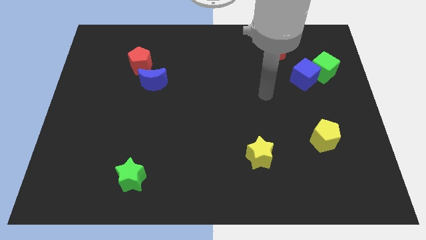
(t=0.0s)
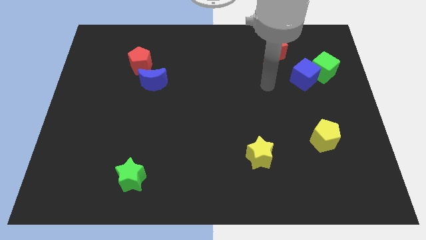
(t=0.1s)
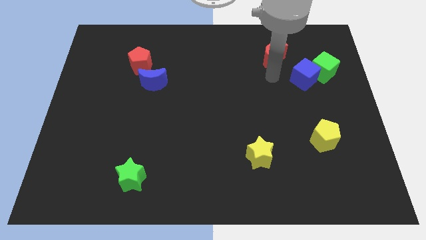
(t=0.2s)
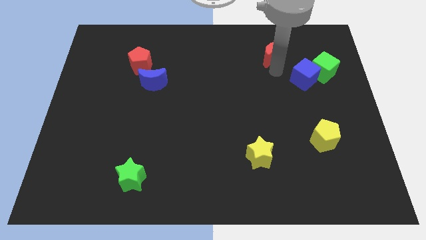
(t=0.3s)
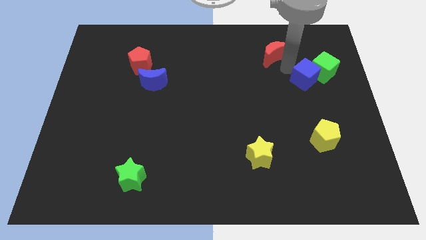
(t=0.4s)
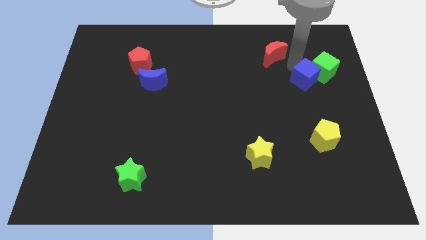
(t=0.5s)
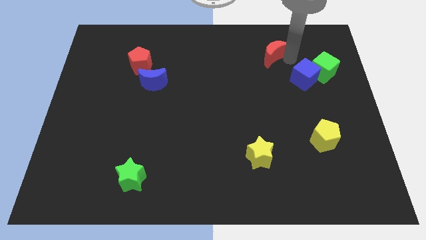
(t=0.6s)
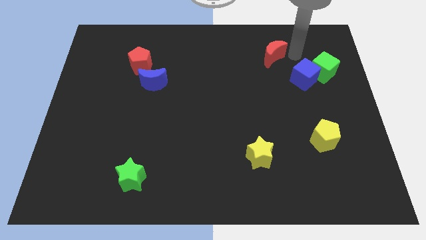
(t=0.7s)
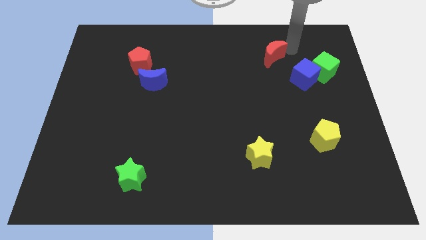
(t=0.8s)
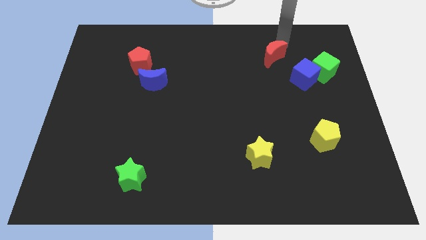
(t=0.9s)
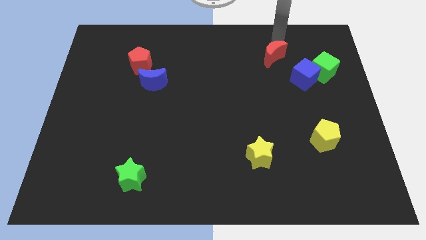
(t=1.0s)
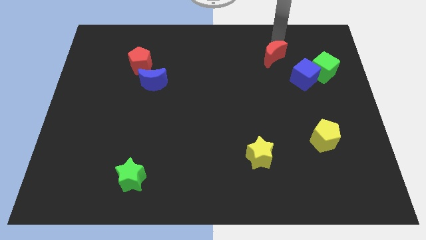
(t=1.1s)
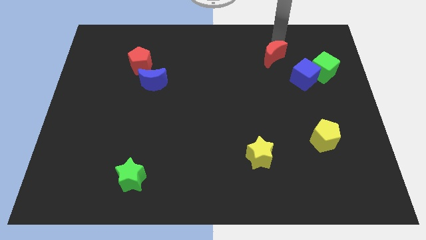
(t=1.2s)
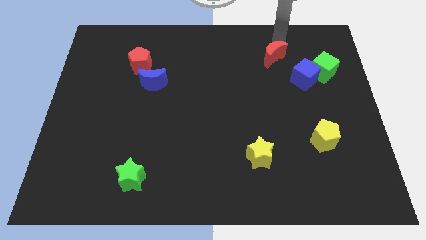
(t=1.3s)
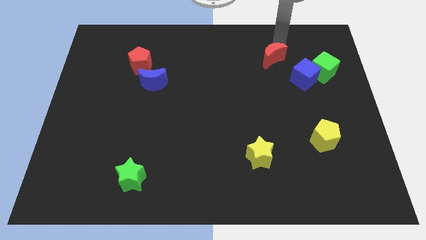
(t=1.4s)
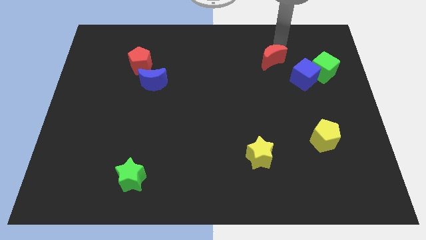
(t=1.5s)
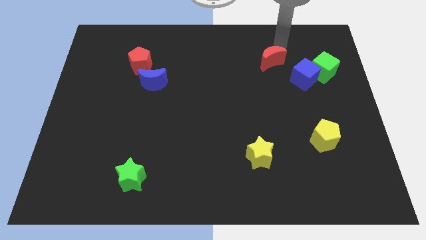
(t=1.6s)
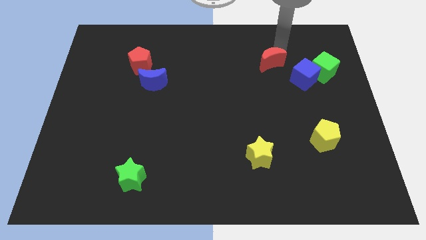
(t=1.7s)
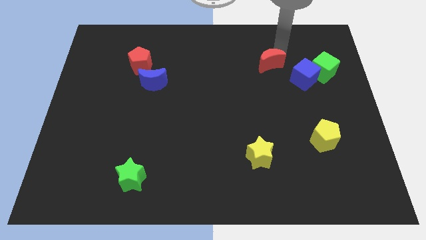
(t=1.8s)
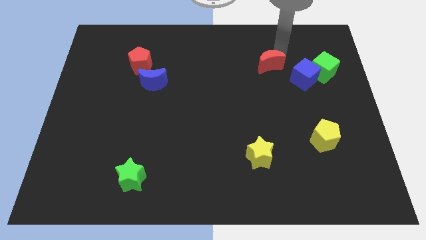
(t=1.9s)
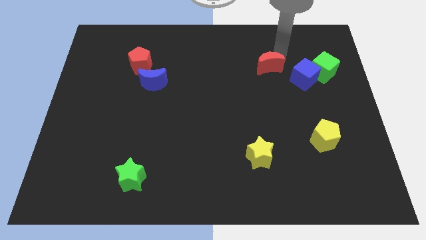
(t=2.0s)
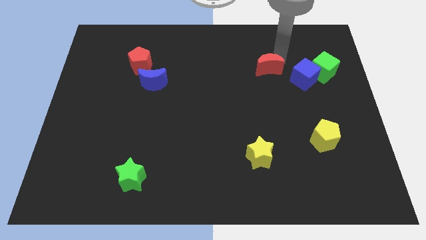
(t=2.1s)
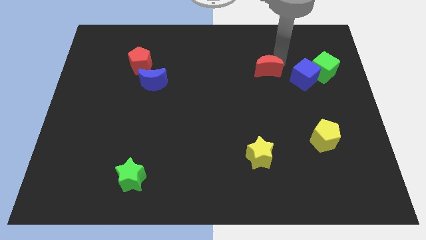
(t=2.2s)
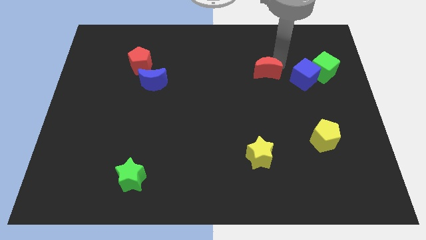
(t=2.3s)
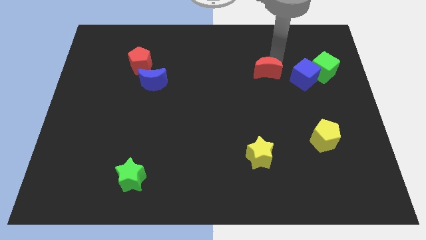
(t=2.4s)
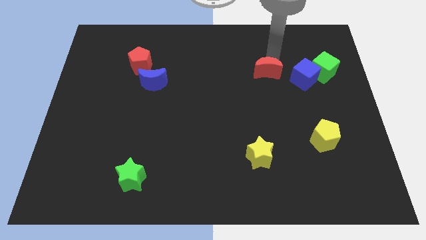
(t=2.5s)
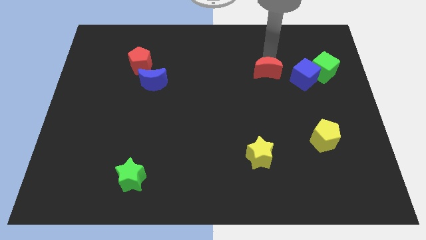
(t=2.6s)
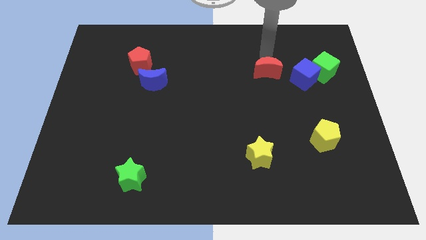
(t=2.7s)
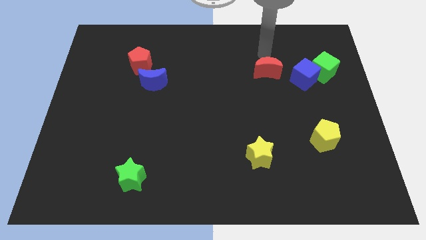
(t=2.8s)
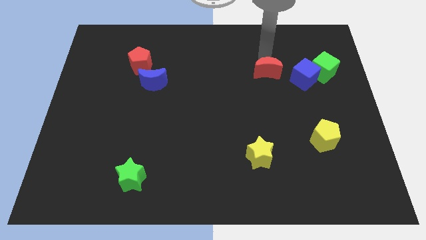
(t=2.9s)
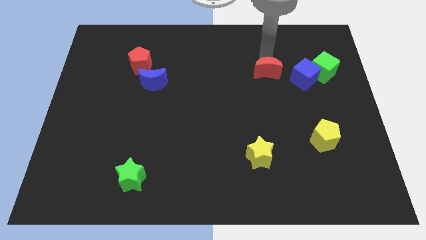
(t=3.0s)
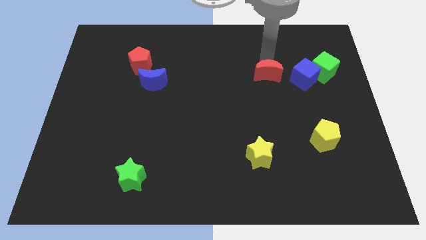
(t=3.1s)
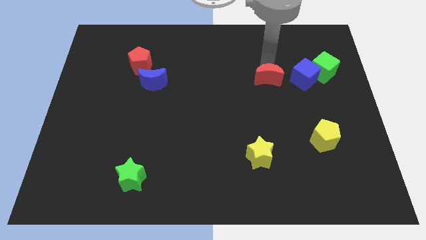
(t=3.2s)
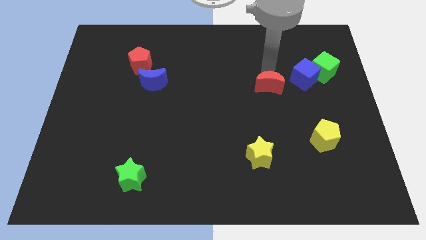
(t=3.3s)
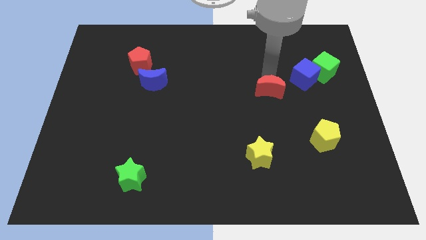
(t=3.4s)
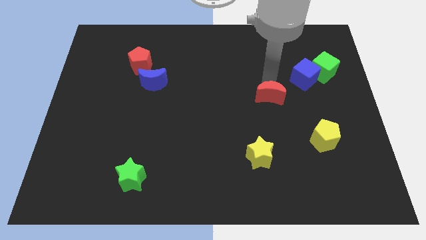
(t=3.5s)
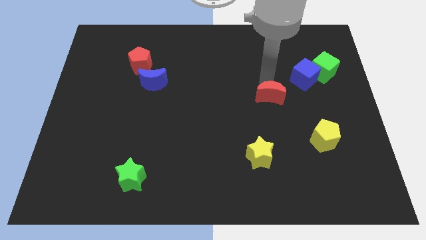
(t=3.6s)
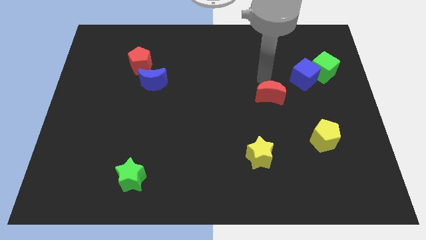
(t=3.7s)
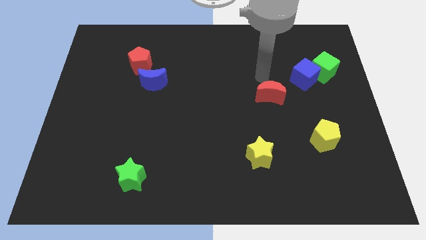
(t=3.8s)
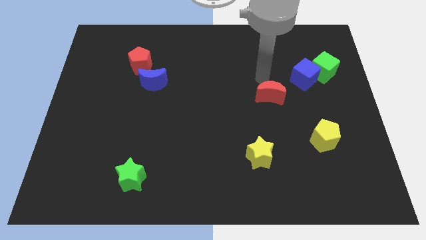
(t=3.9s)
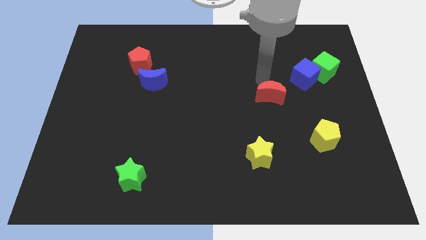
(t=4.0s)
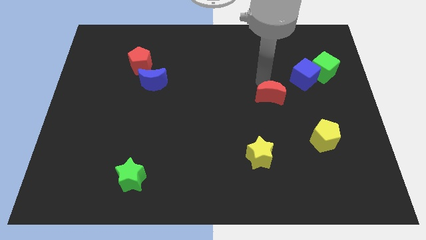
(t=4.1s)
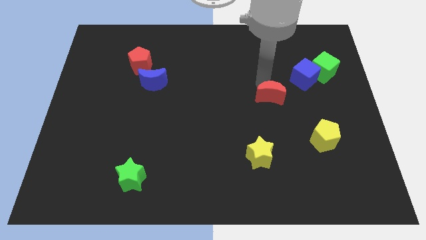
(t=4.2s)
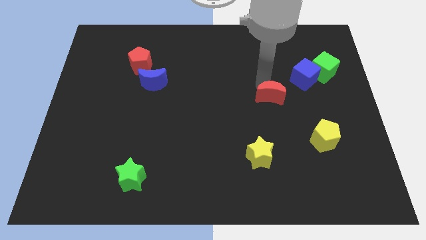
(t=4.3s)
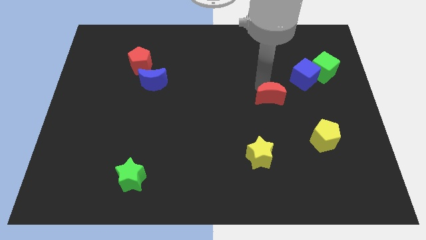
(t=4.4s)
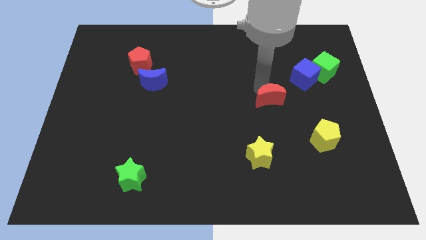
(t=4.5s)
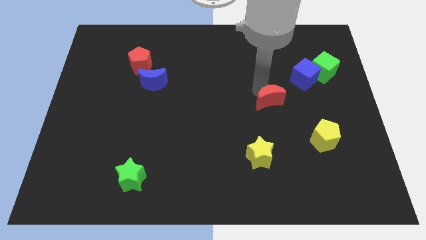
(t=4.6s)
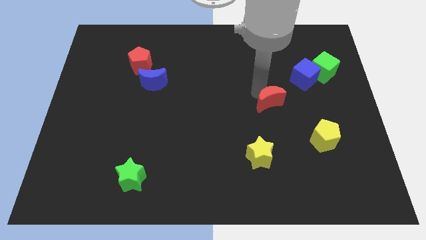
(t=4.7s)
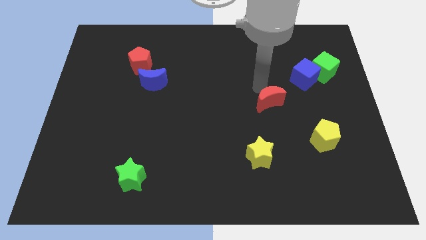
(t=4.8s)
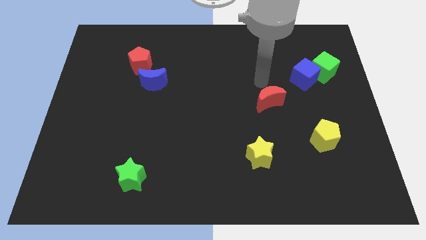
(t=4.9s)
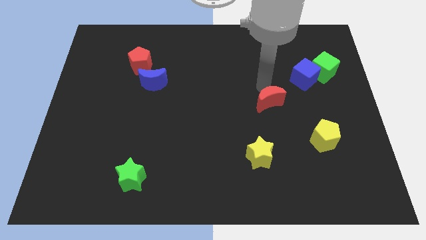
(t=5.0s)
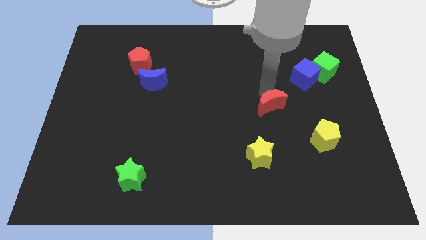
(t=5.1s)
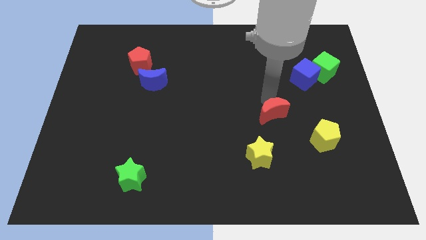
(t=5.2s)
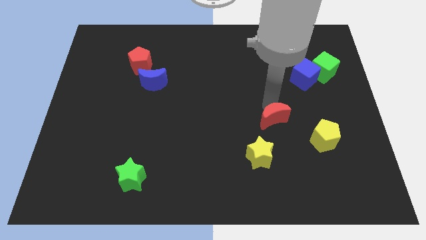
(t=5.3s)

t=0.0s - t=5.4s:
move the red moon to the top right of the yellow star

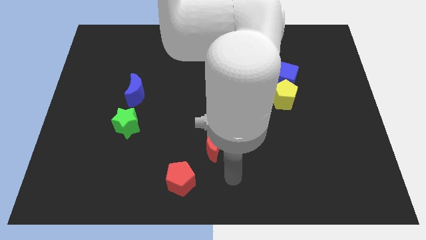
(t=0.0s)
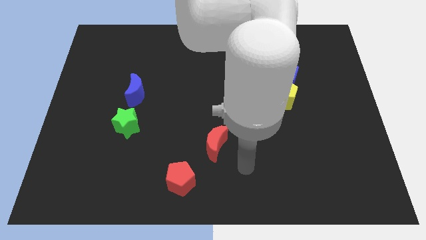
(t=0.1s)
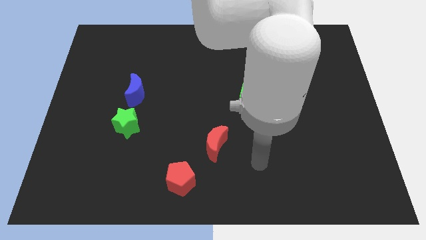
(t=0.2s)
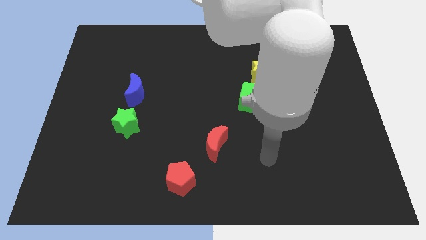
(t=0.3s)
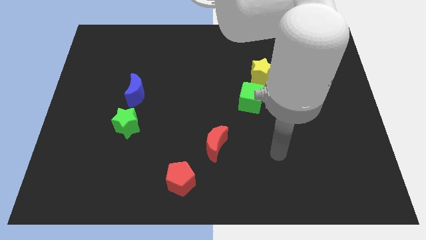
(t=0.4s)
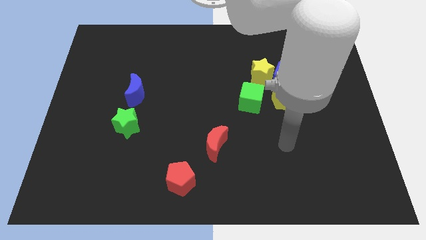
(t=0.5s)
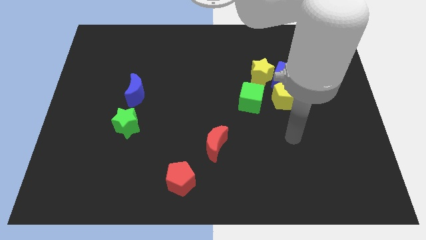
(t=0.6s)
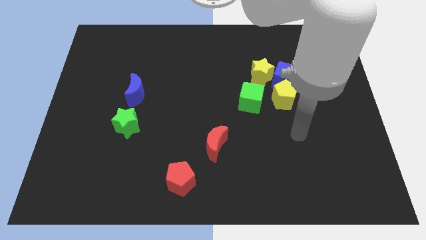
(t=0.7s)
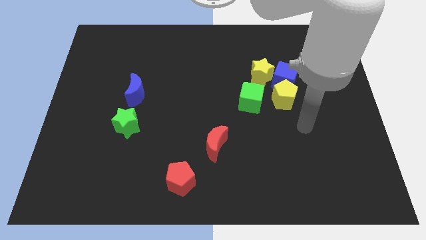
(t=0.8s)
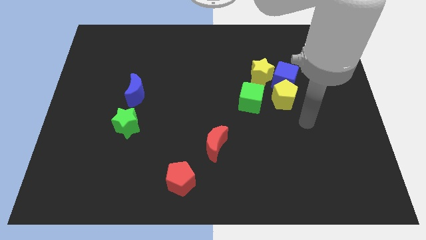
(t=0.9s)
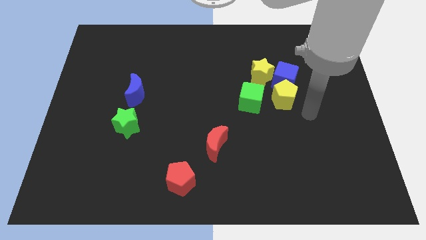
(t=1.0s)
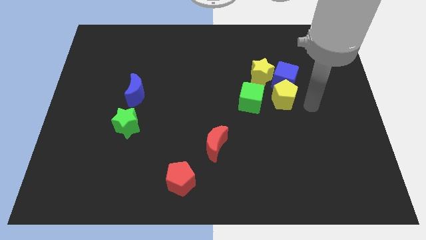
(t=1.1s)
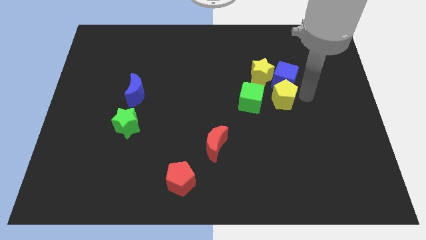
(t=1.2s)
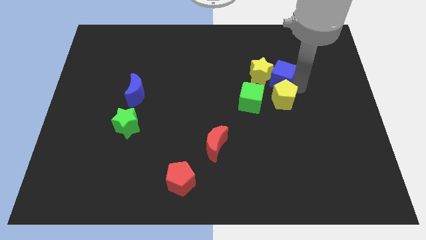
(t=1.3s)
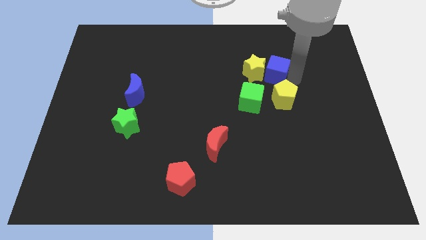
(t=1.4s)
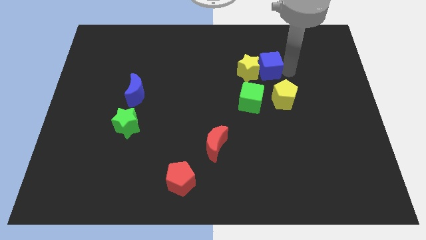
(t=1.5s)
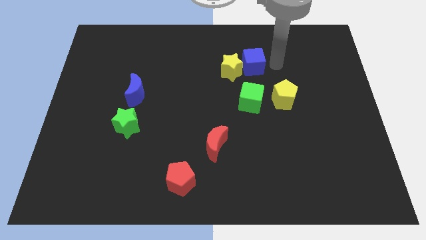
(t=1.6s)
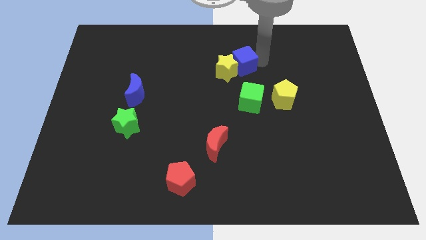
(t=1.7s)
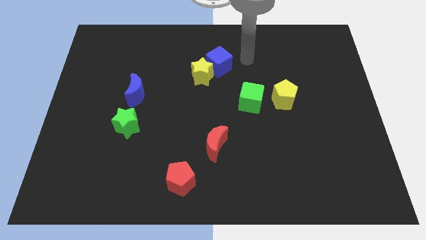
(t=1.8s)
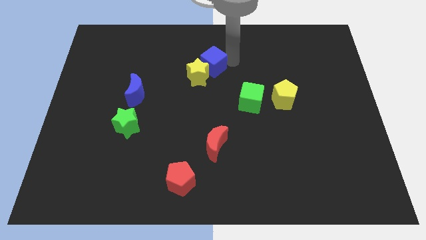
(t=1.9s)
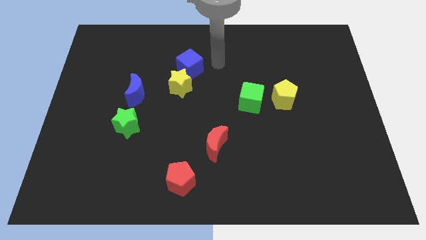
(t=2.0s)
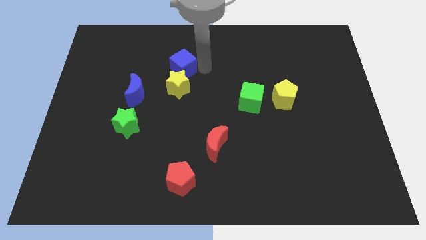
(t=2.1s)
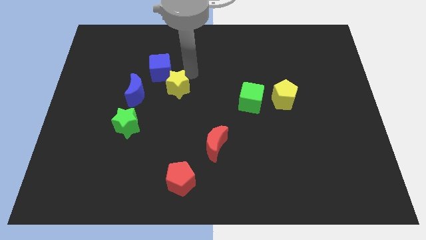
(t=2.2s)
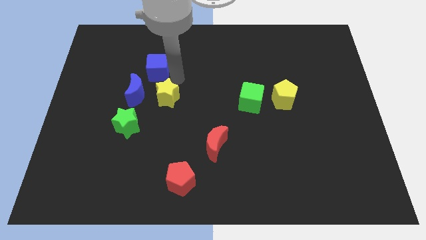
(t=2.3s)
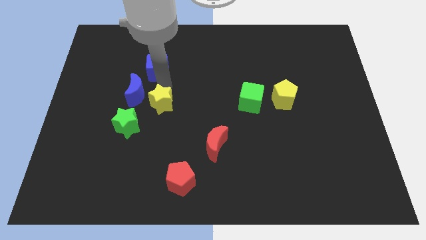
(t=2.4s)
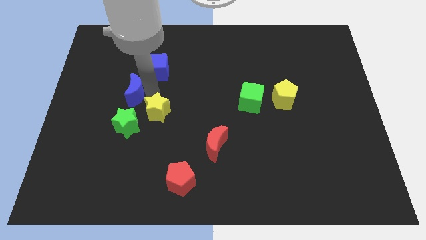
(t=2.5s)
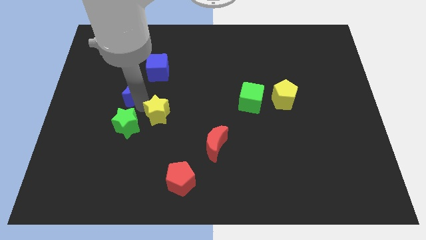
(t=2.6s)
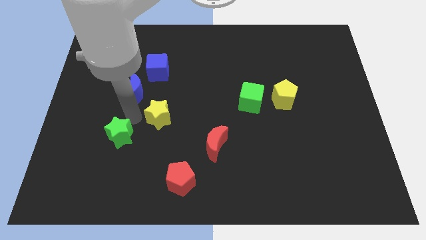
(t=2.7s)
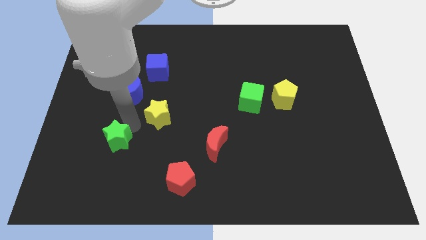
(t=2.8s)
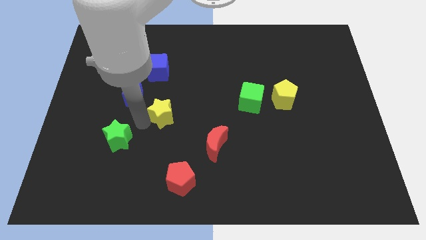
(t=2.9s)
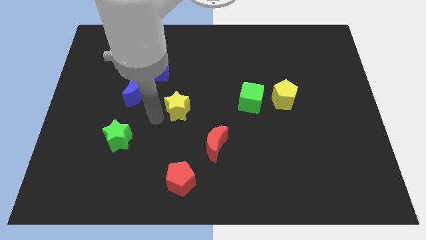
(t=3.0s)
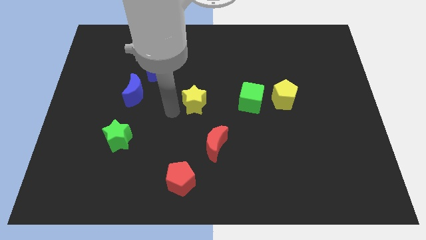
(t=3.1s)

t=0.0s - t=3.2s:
slide the yellow star just left of the green cube
